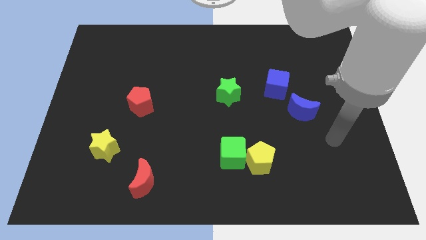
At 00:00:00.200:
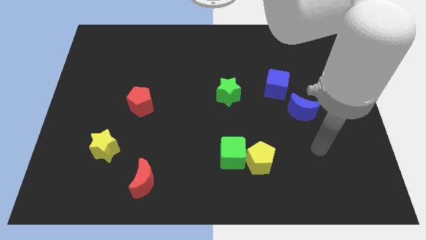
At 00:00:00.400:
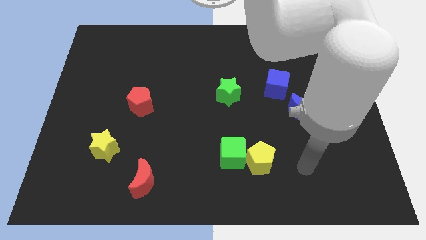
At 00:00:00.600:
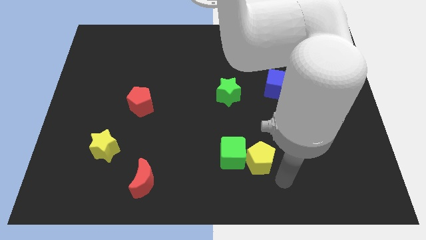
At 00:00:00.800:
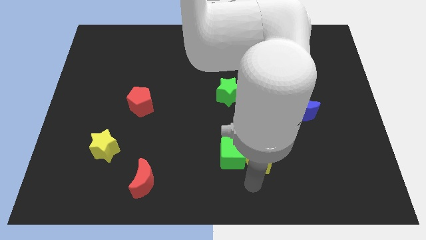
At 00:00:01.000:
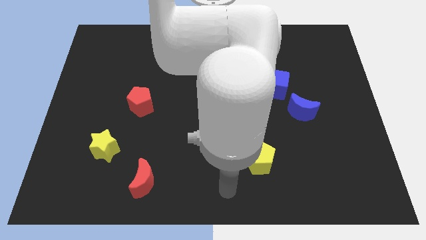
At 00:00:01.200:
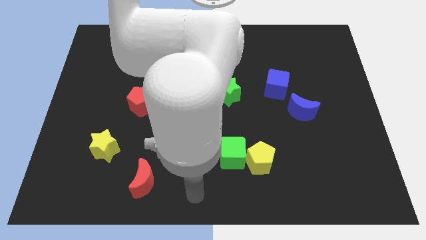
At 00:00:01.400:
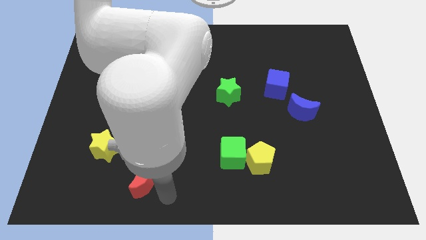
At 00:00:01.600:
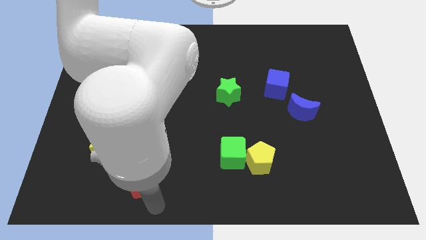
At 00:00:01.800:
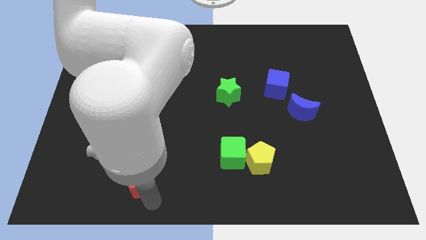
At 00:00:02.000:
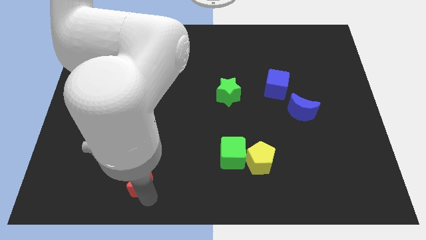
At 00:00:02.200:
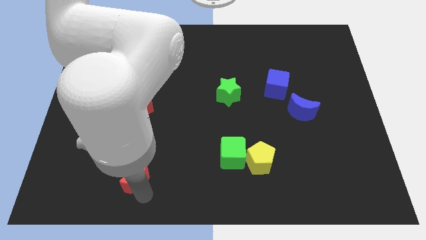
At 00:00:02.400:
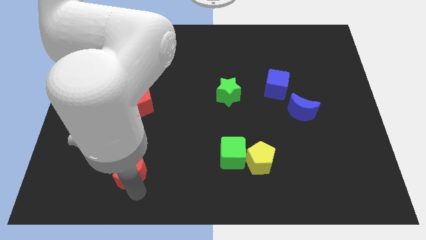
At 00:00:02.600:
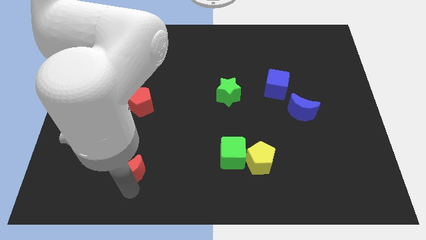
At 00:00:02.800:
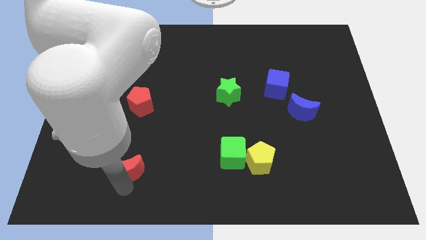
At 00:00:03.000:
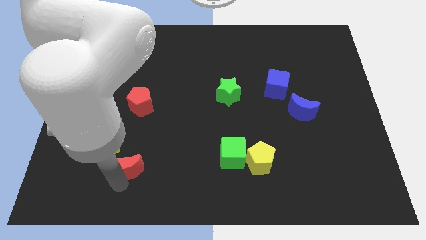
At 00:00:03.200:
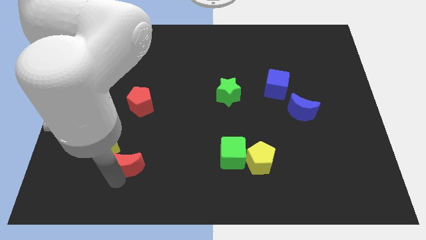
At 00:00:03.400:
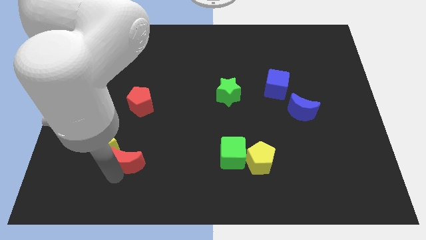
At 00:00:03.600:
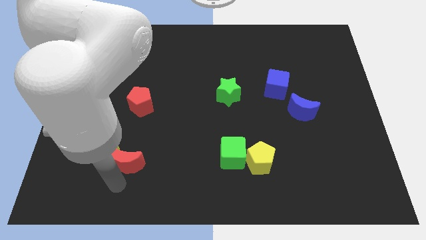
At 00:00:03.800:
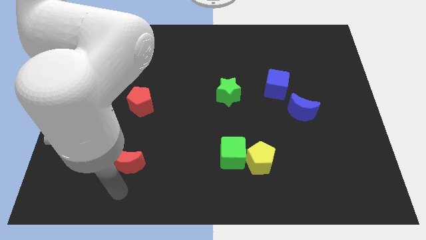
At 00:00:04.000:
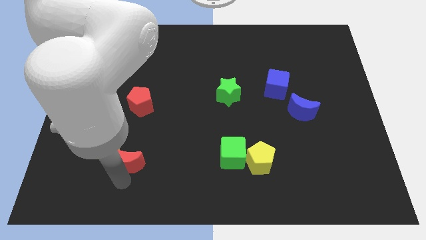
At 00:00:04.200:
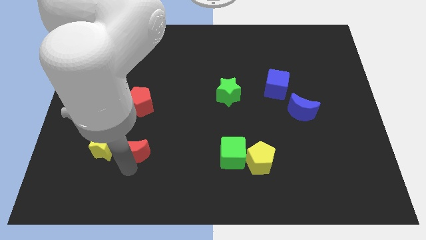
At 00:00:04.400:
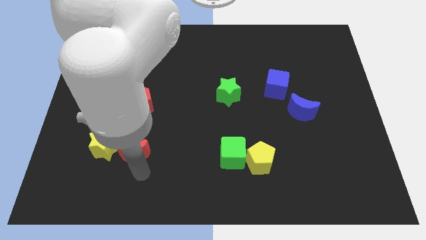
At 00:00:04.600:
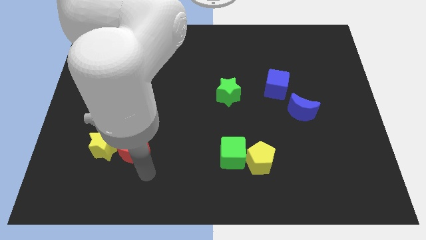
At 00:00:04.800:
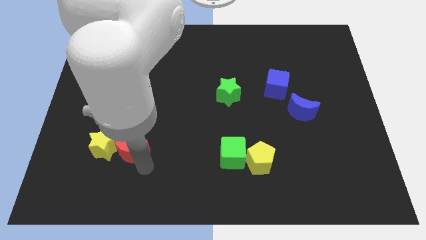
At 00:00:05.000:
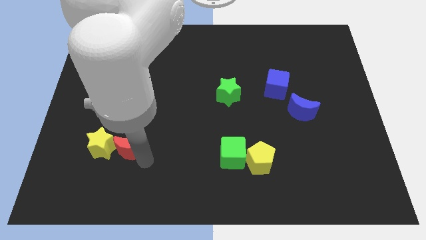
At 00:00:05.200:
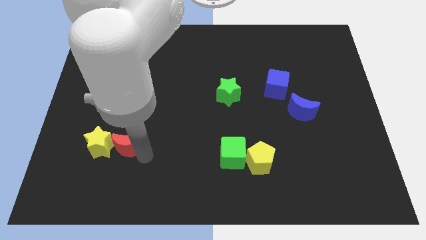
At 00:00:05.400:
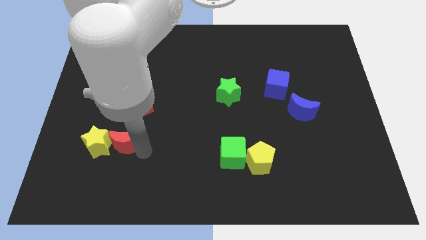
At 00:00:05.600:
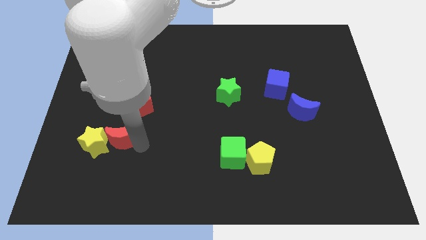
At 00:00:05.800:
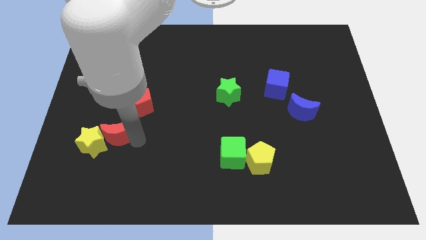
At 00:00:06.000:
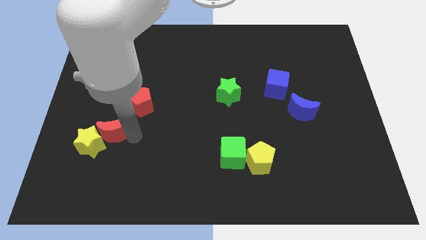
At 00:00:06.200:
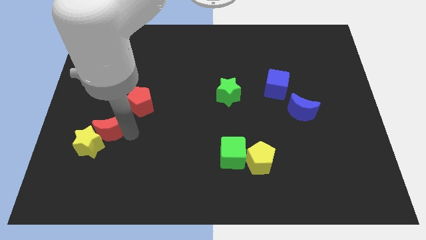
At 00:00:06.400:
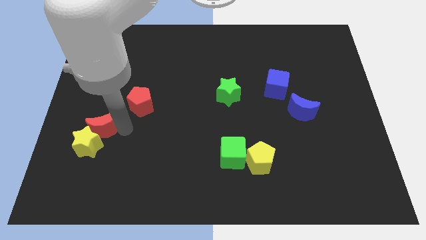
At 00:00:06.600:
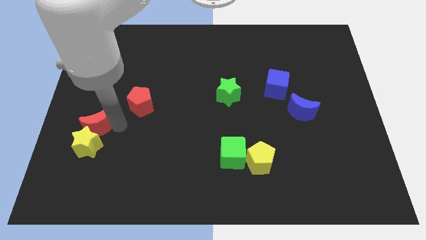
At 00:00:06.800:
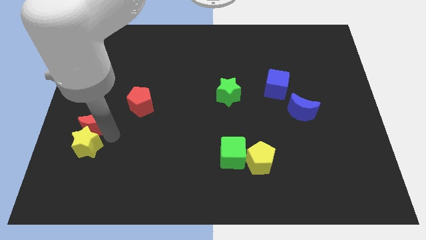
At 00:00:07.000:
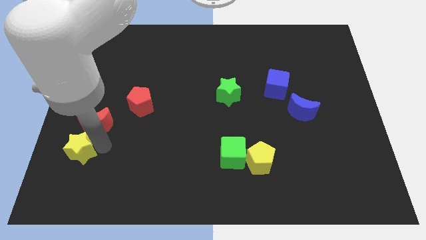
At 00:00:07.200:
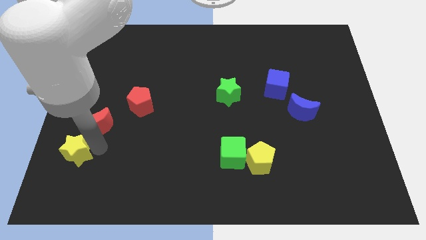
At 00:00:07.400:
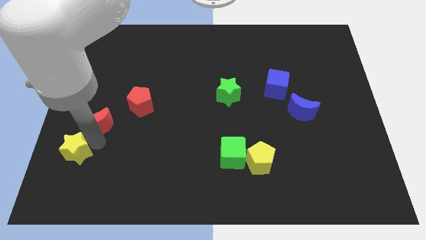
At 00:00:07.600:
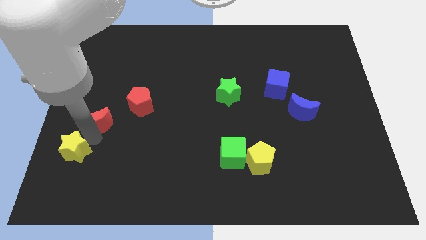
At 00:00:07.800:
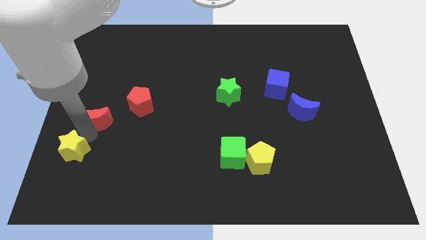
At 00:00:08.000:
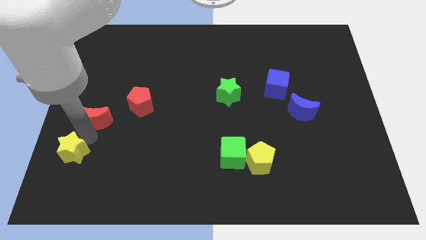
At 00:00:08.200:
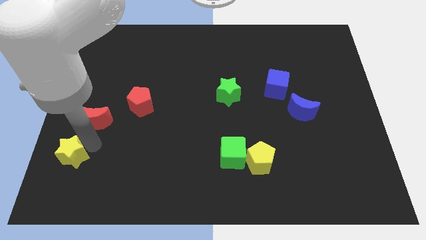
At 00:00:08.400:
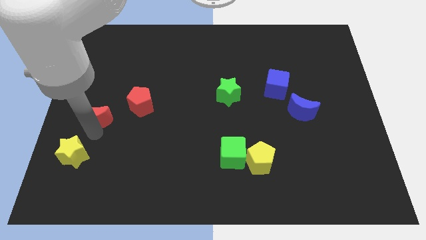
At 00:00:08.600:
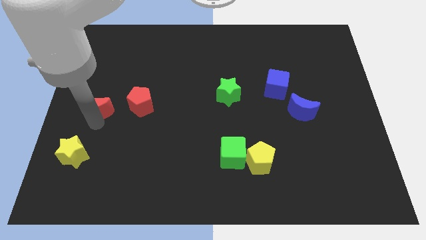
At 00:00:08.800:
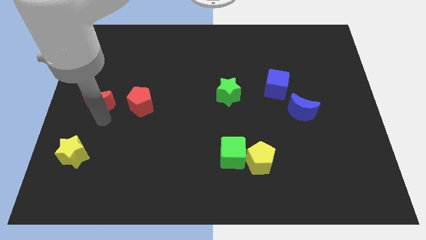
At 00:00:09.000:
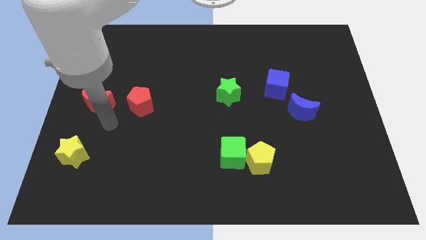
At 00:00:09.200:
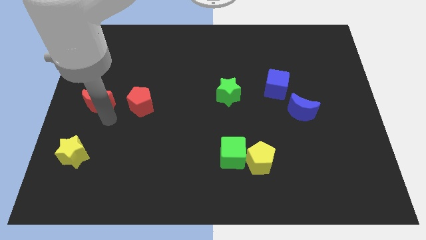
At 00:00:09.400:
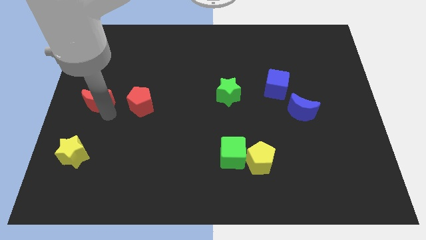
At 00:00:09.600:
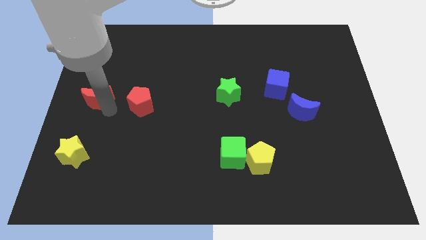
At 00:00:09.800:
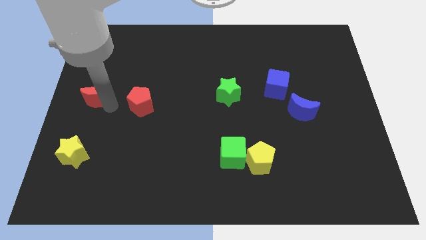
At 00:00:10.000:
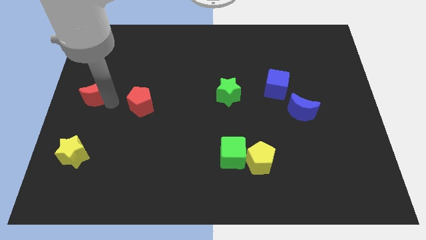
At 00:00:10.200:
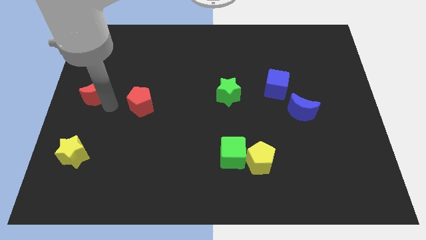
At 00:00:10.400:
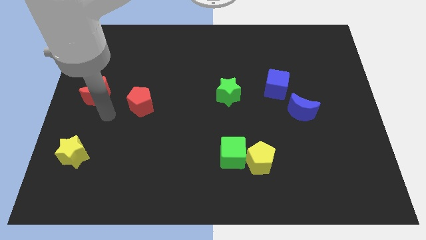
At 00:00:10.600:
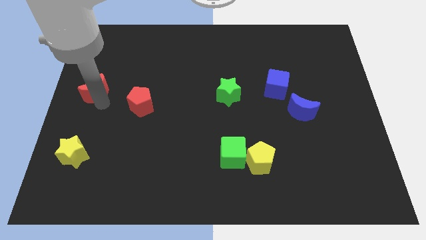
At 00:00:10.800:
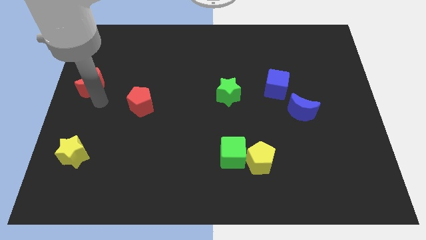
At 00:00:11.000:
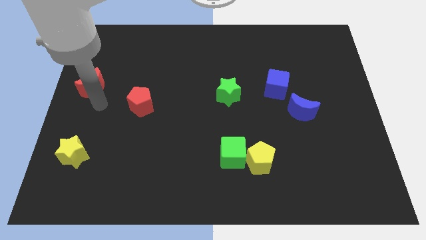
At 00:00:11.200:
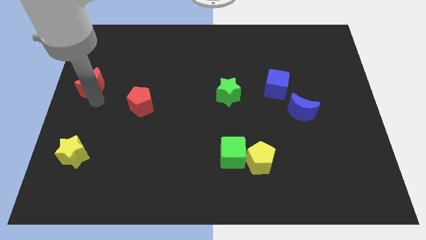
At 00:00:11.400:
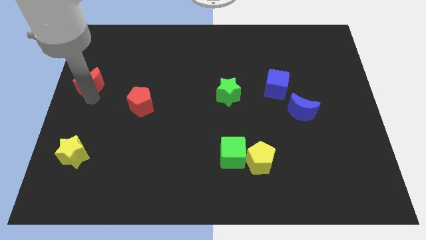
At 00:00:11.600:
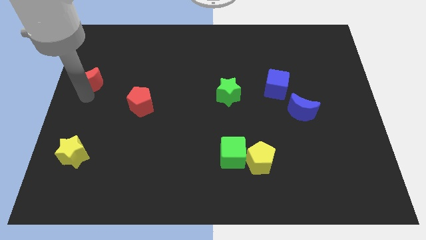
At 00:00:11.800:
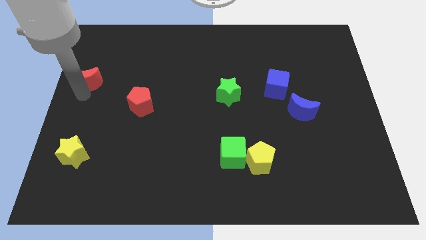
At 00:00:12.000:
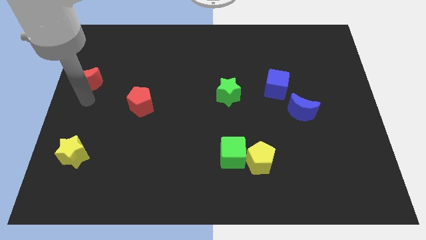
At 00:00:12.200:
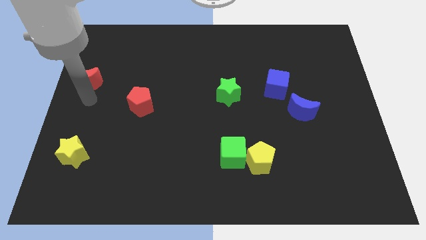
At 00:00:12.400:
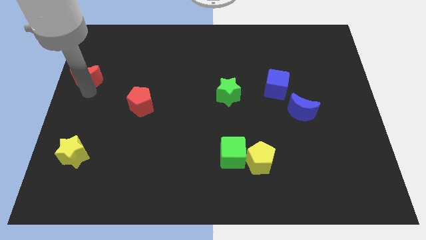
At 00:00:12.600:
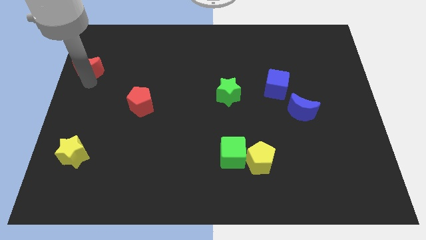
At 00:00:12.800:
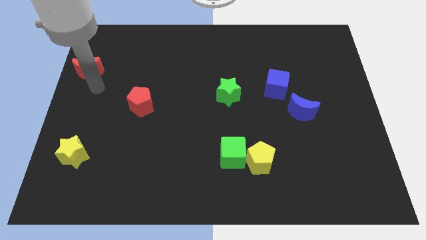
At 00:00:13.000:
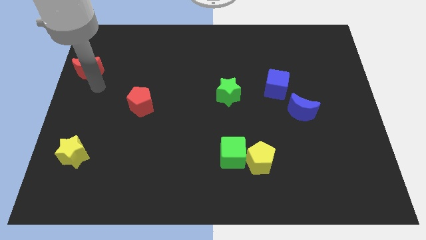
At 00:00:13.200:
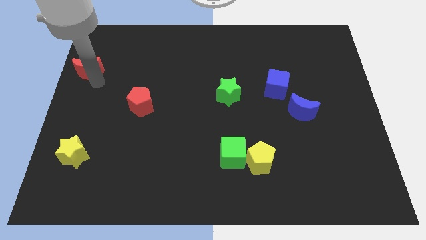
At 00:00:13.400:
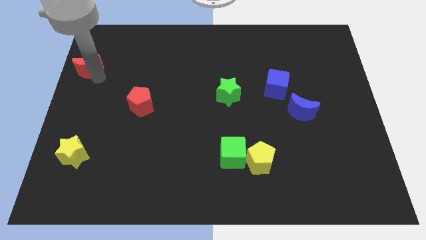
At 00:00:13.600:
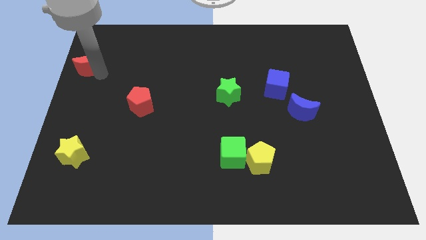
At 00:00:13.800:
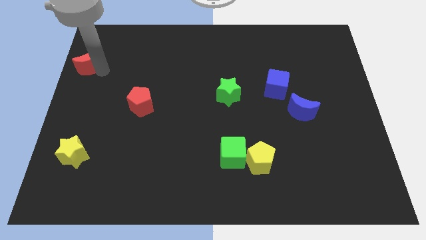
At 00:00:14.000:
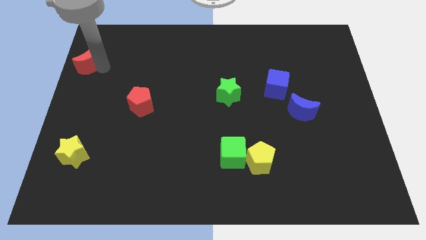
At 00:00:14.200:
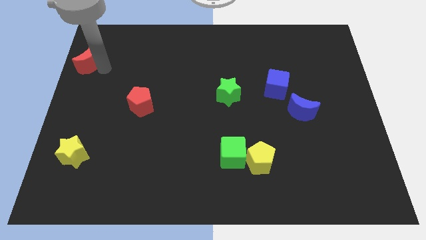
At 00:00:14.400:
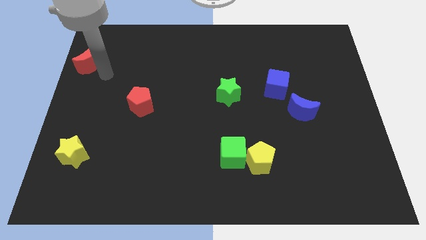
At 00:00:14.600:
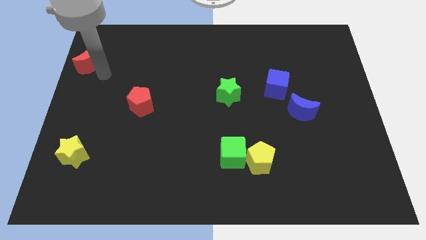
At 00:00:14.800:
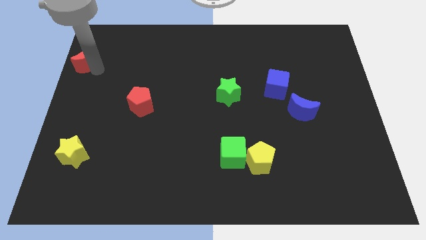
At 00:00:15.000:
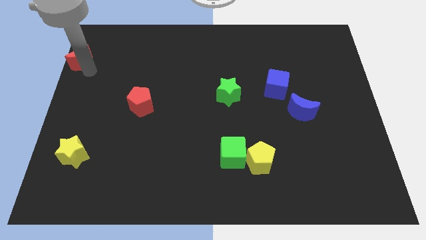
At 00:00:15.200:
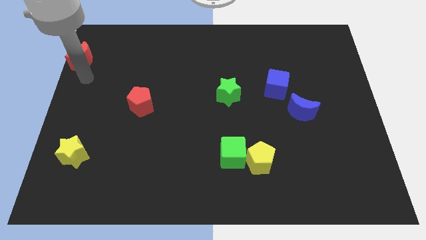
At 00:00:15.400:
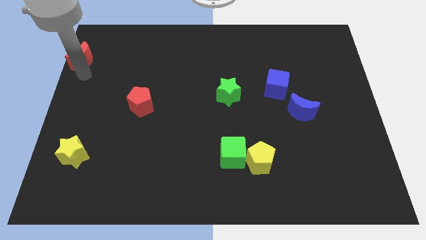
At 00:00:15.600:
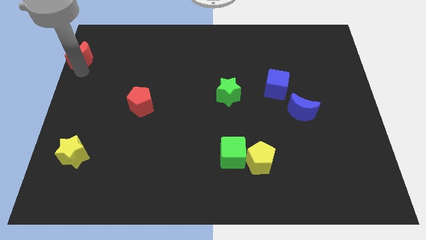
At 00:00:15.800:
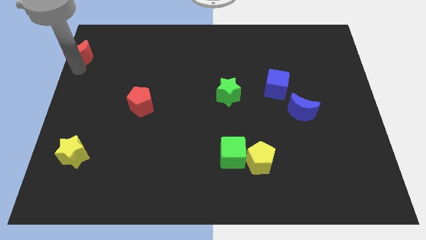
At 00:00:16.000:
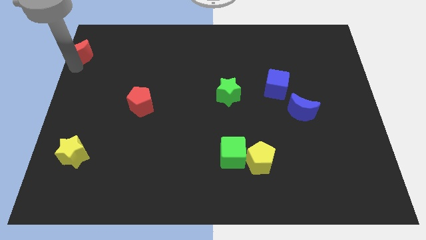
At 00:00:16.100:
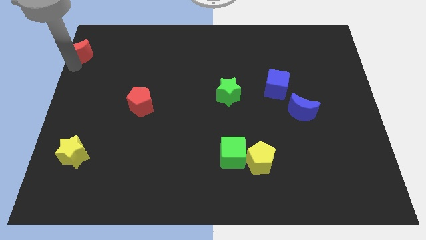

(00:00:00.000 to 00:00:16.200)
slide the red moon to the top left corner
